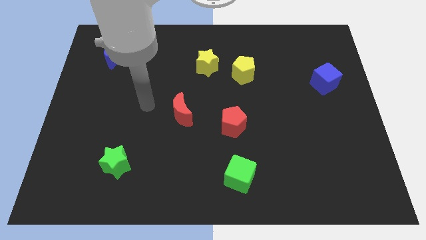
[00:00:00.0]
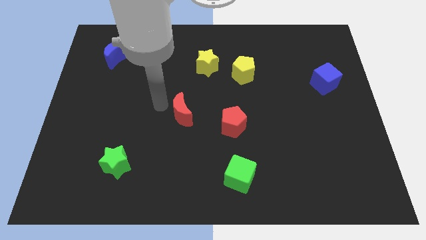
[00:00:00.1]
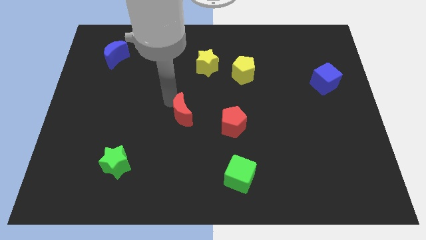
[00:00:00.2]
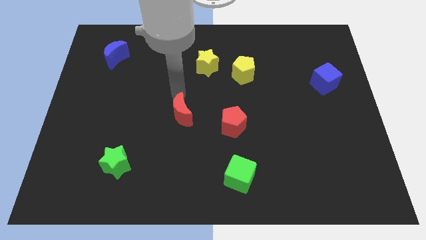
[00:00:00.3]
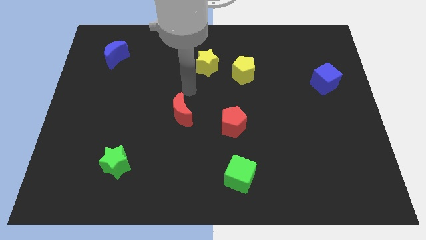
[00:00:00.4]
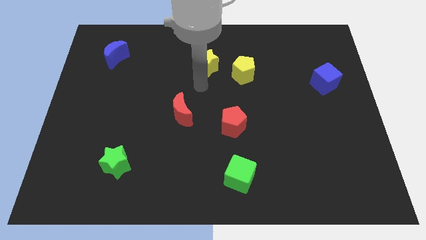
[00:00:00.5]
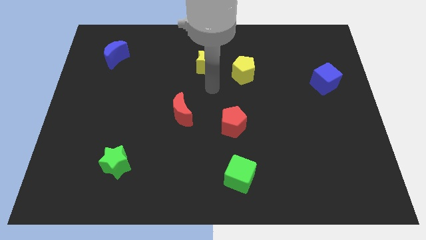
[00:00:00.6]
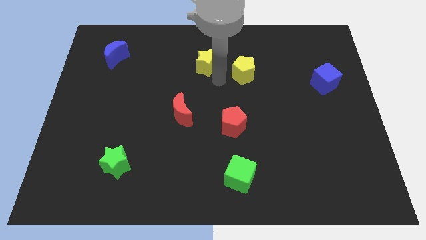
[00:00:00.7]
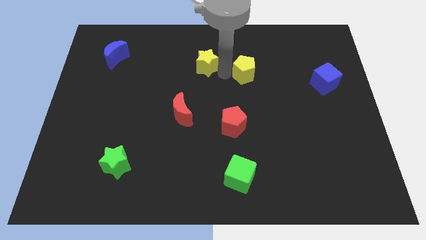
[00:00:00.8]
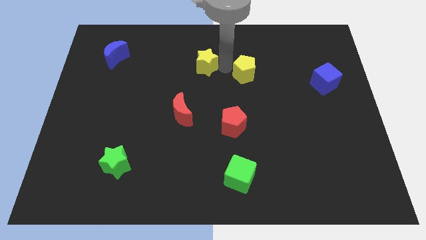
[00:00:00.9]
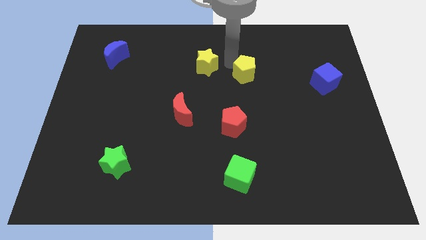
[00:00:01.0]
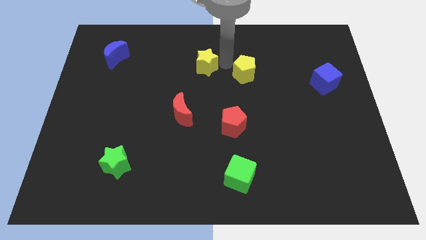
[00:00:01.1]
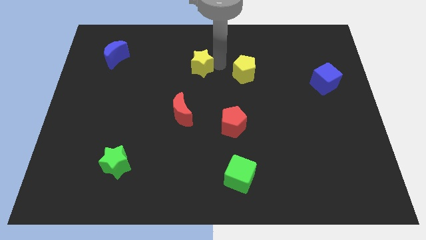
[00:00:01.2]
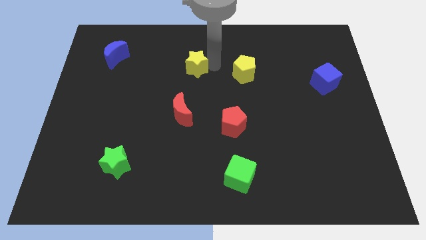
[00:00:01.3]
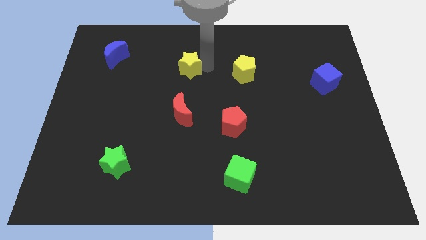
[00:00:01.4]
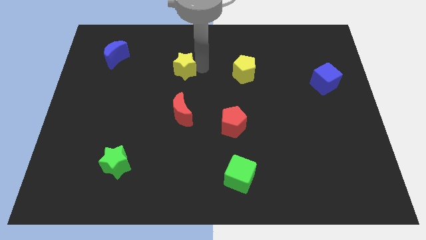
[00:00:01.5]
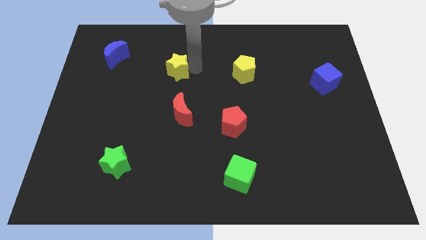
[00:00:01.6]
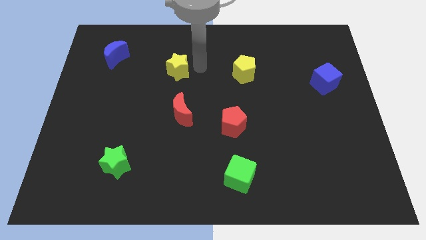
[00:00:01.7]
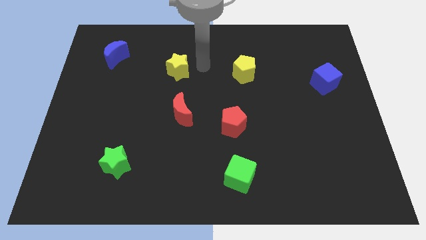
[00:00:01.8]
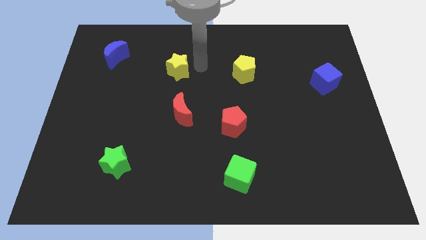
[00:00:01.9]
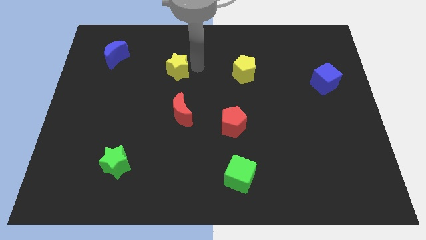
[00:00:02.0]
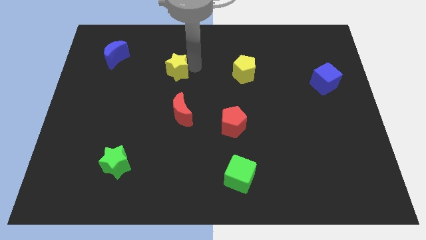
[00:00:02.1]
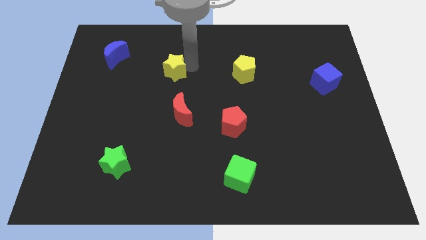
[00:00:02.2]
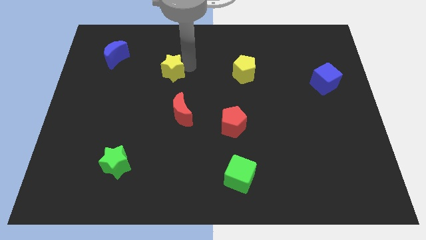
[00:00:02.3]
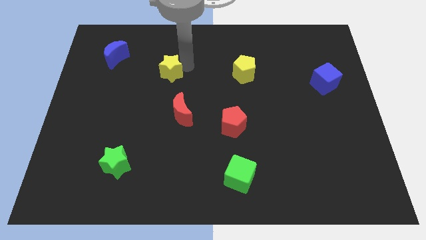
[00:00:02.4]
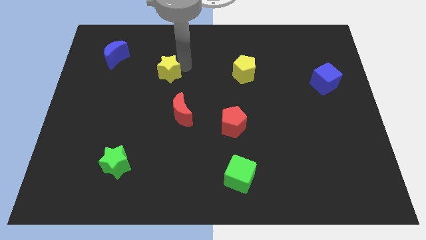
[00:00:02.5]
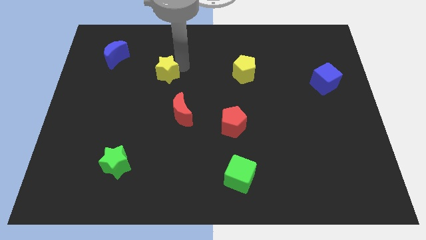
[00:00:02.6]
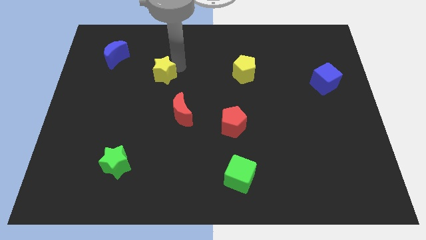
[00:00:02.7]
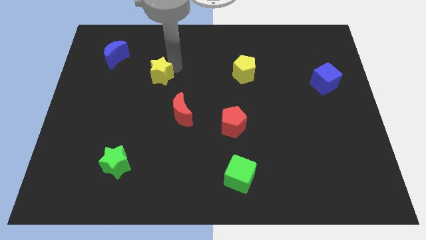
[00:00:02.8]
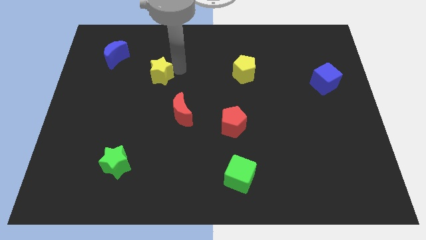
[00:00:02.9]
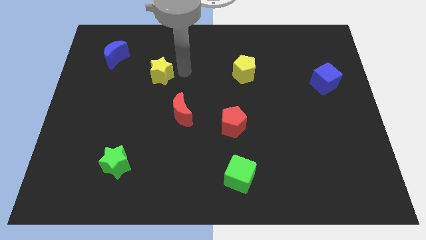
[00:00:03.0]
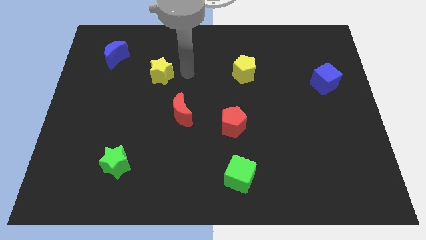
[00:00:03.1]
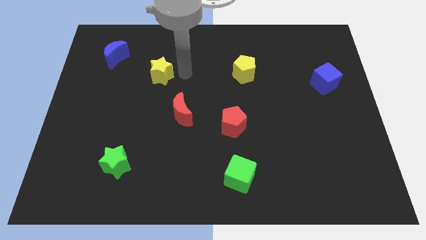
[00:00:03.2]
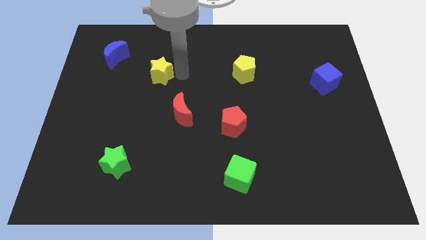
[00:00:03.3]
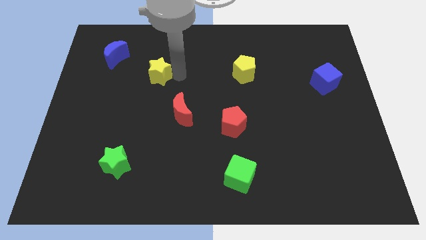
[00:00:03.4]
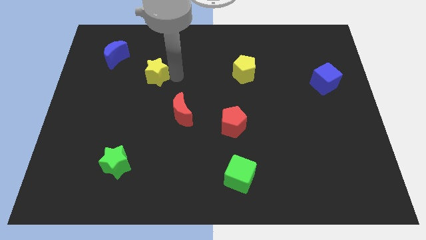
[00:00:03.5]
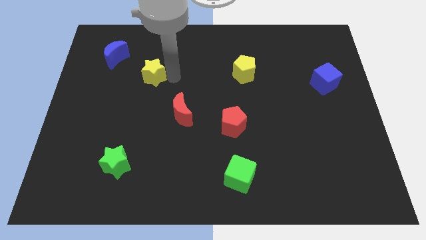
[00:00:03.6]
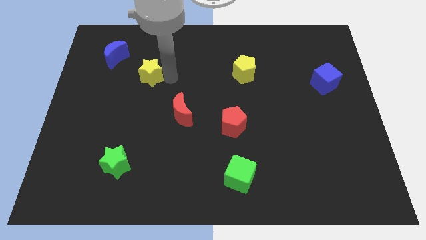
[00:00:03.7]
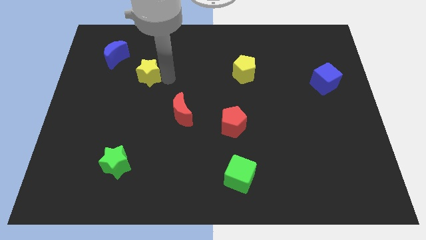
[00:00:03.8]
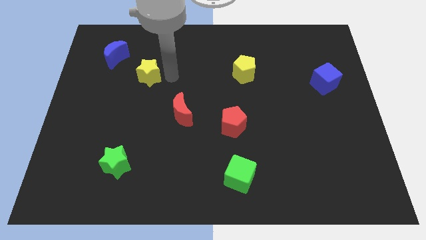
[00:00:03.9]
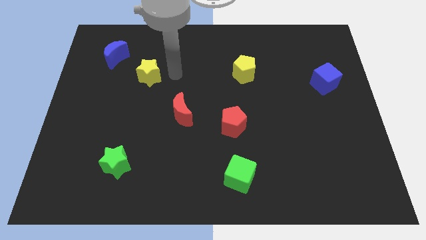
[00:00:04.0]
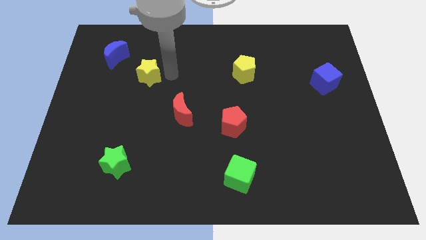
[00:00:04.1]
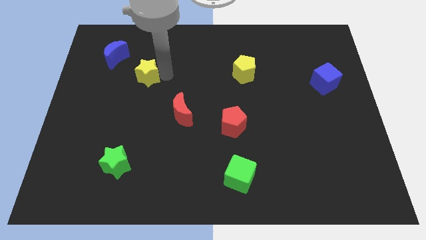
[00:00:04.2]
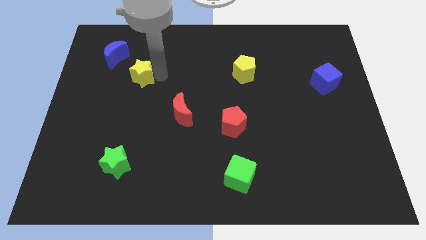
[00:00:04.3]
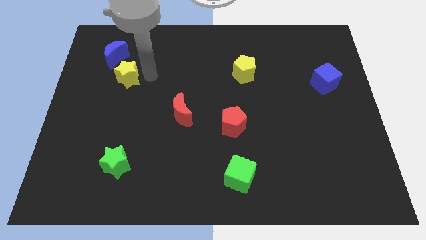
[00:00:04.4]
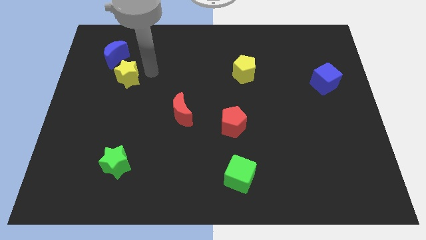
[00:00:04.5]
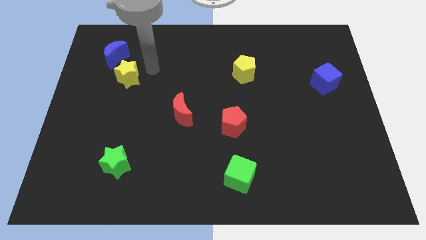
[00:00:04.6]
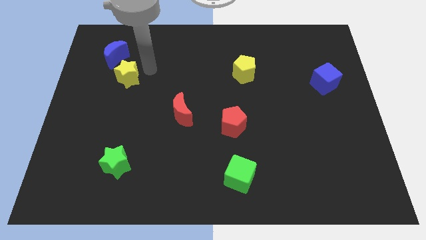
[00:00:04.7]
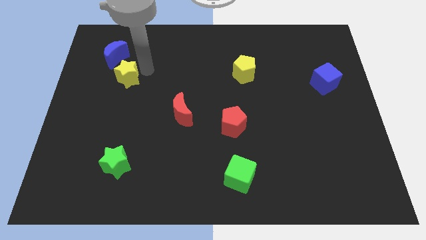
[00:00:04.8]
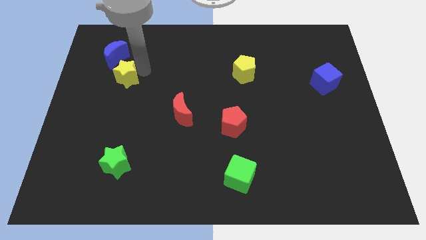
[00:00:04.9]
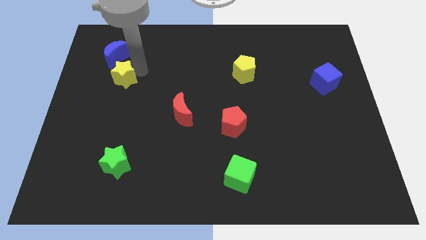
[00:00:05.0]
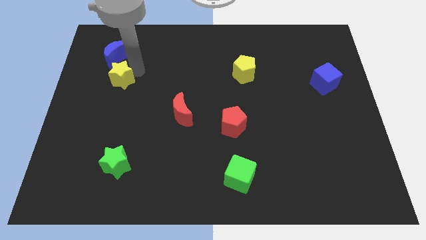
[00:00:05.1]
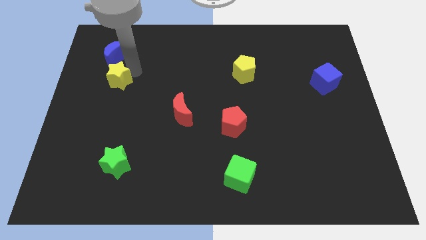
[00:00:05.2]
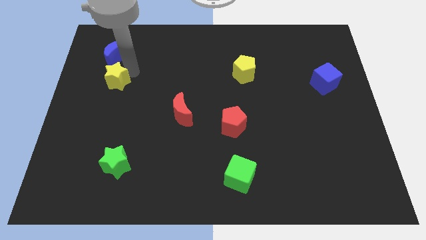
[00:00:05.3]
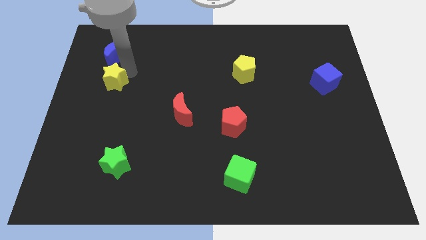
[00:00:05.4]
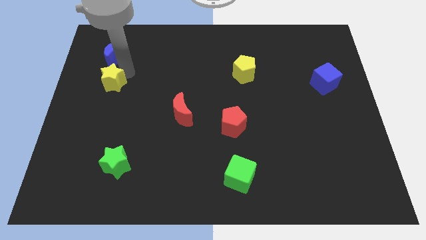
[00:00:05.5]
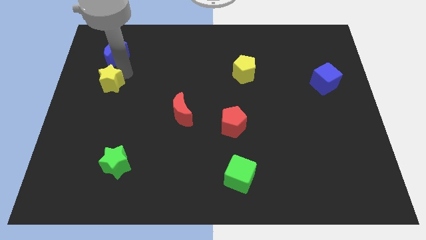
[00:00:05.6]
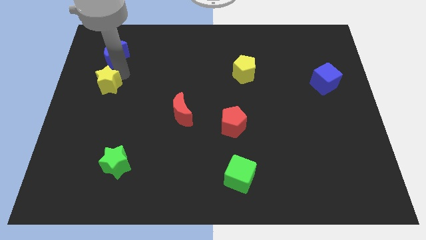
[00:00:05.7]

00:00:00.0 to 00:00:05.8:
push the yellow star to the left side of the board

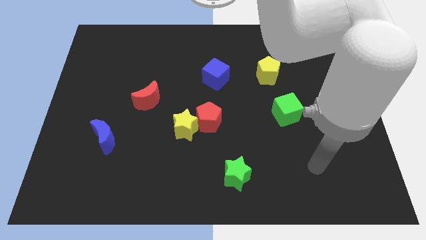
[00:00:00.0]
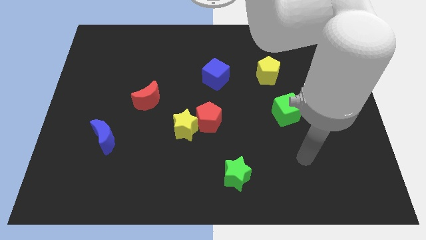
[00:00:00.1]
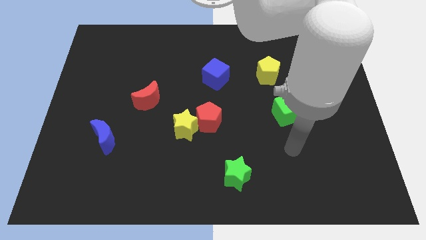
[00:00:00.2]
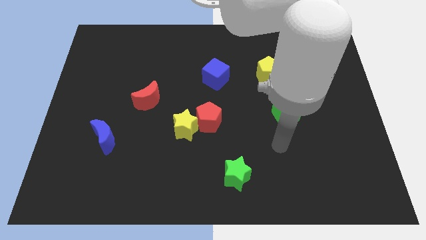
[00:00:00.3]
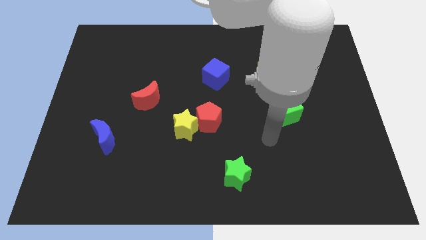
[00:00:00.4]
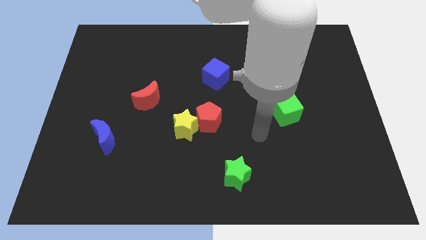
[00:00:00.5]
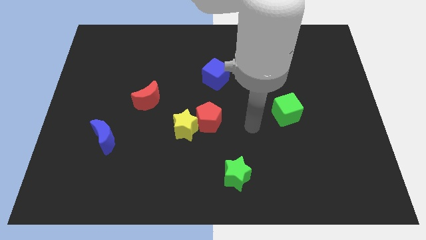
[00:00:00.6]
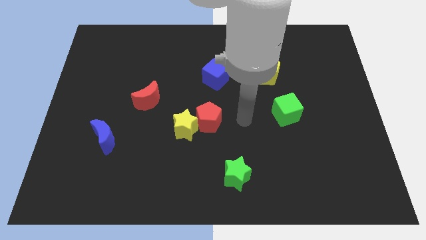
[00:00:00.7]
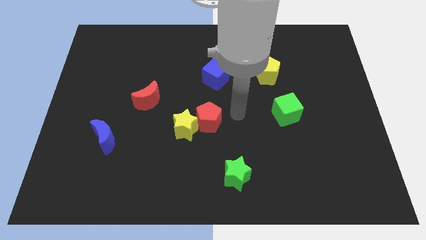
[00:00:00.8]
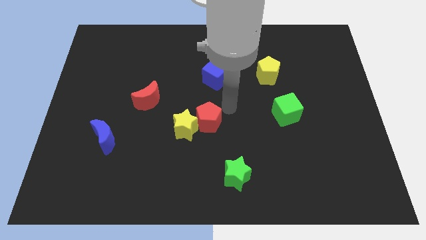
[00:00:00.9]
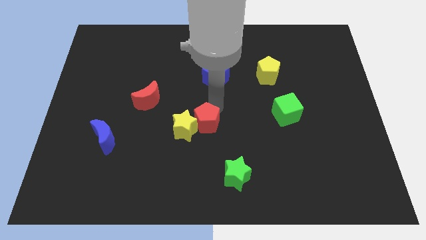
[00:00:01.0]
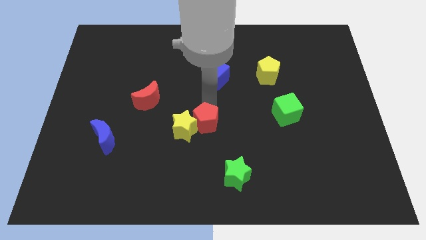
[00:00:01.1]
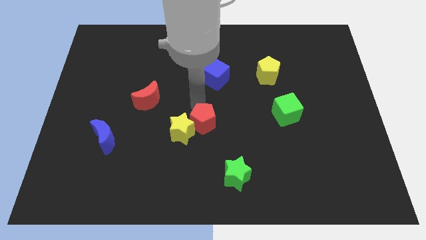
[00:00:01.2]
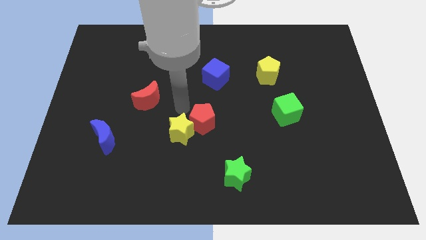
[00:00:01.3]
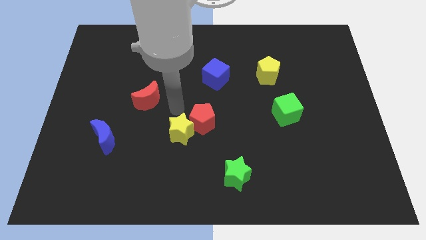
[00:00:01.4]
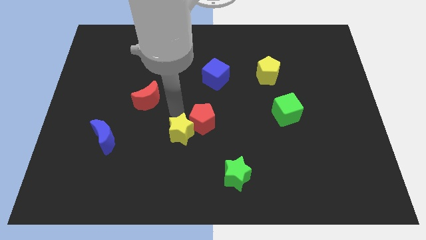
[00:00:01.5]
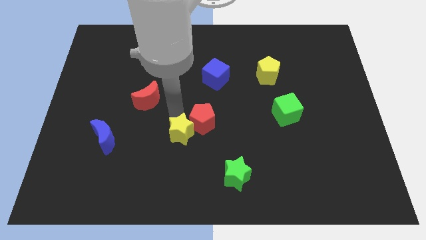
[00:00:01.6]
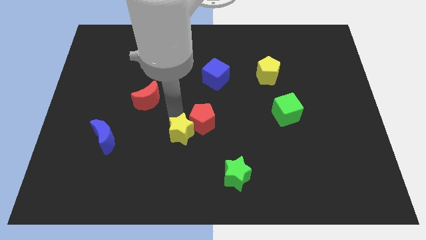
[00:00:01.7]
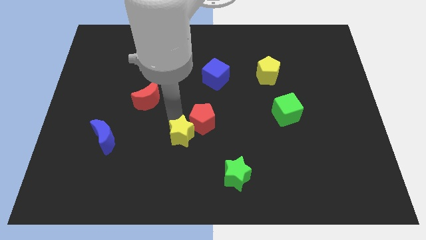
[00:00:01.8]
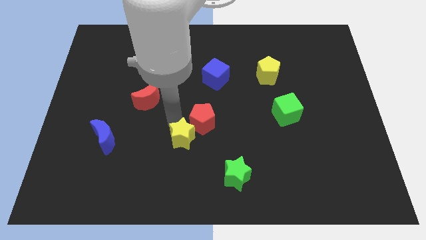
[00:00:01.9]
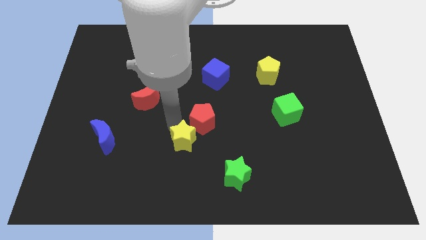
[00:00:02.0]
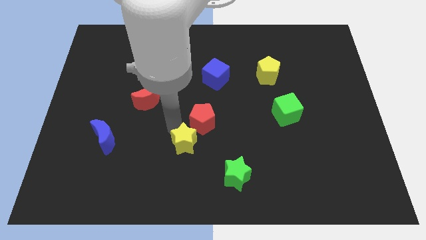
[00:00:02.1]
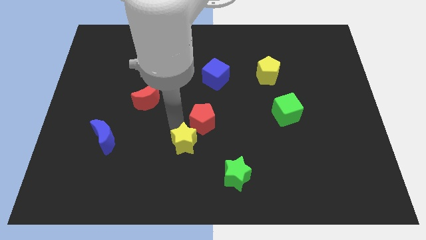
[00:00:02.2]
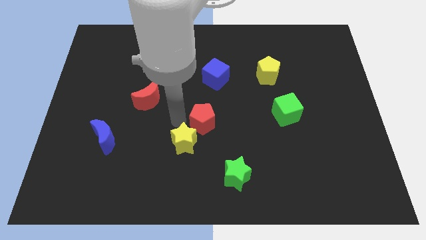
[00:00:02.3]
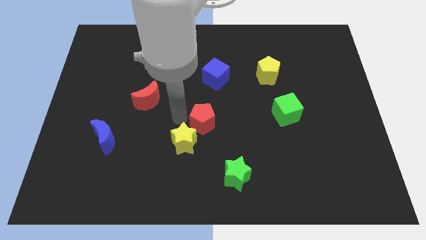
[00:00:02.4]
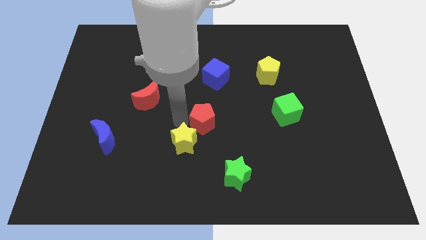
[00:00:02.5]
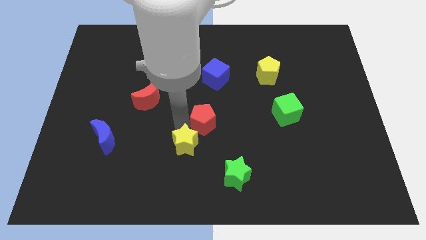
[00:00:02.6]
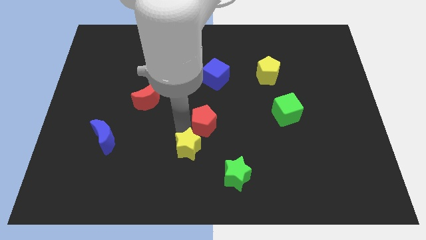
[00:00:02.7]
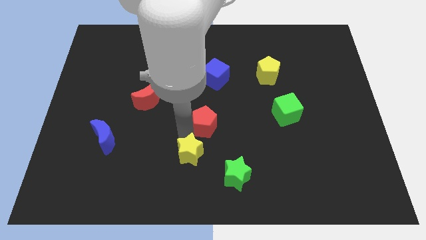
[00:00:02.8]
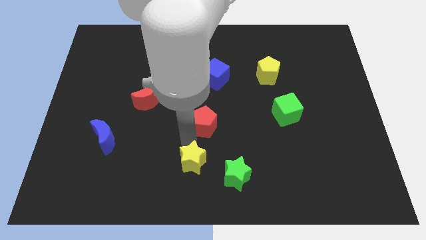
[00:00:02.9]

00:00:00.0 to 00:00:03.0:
slide the yellow star to the bottom side
